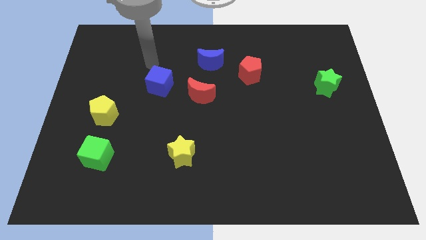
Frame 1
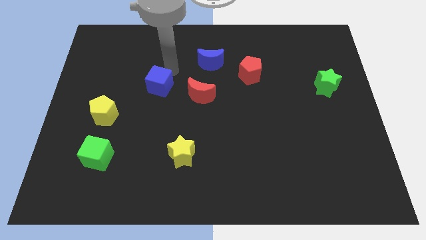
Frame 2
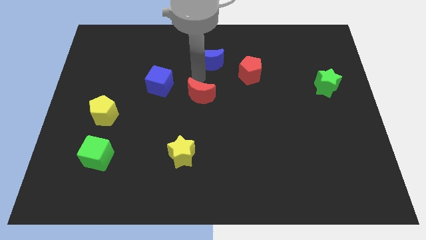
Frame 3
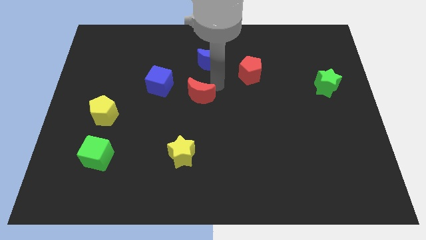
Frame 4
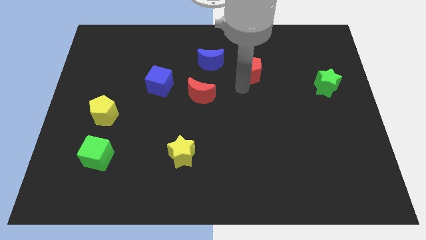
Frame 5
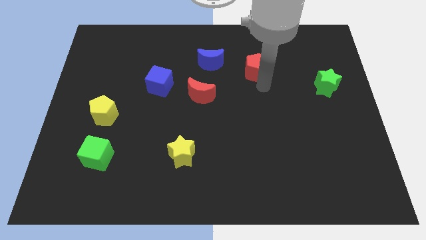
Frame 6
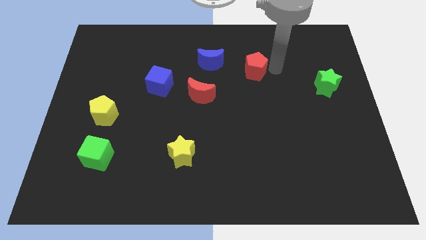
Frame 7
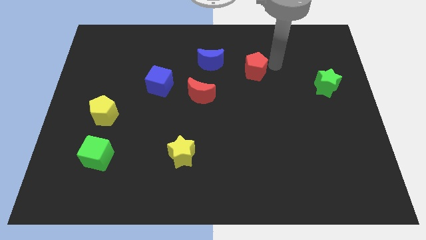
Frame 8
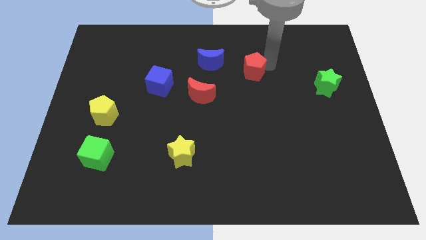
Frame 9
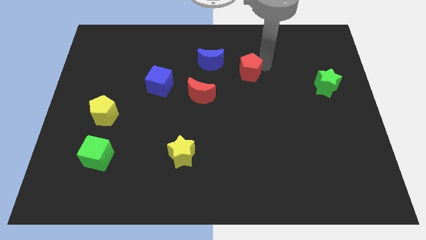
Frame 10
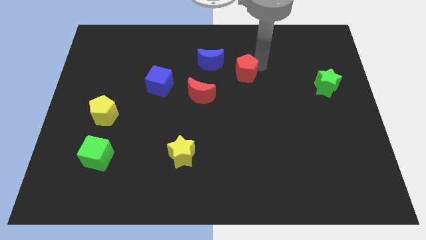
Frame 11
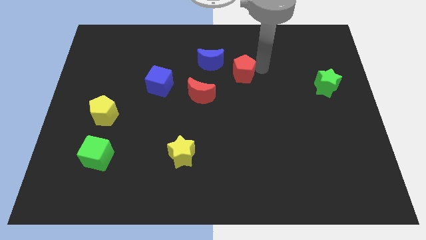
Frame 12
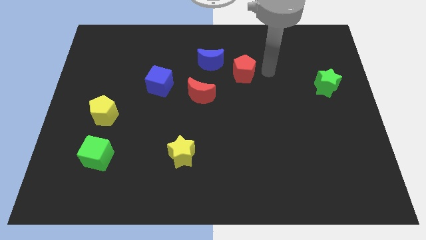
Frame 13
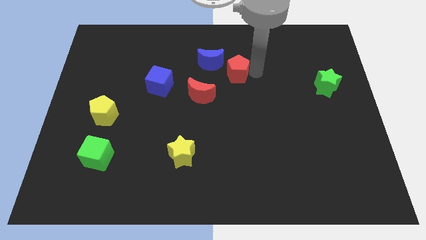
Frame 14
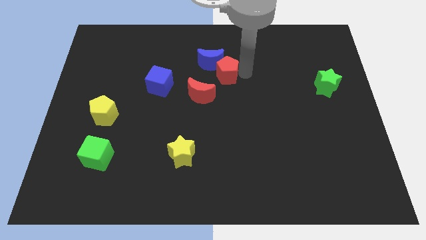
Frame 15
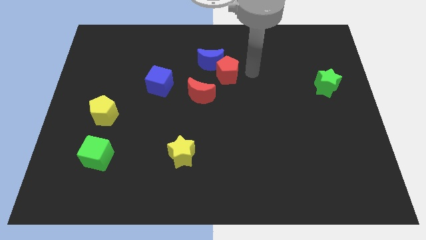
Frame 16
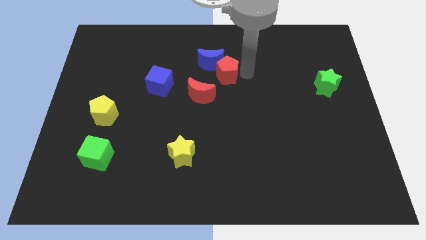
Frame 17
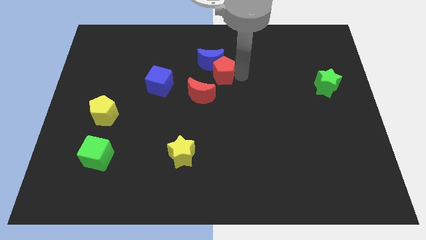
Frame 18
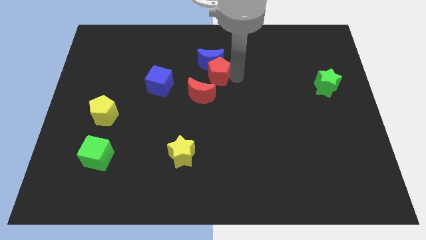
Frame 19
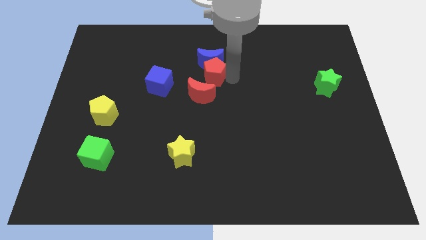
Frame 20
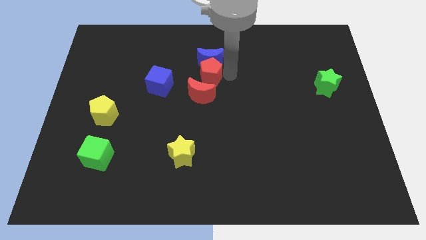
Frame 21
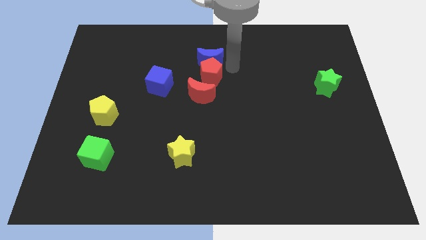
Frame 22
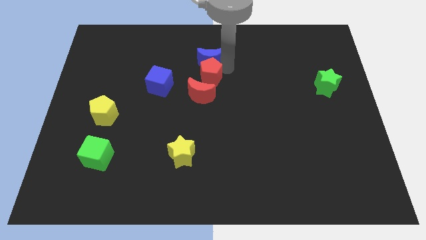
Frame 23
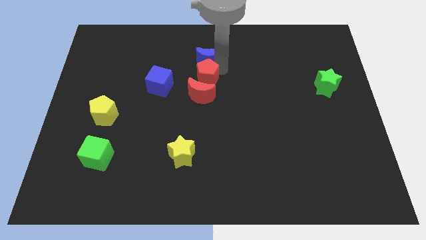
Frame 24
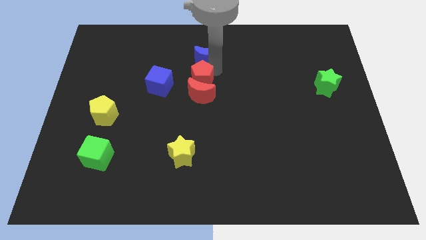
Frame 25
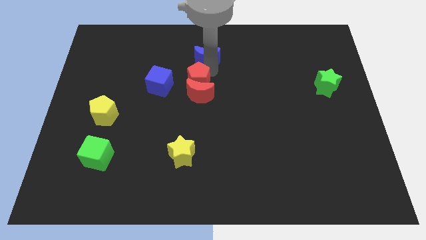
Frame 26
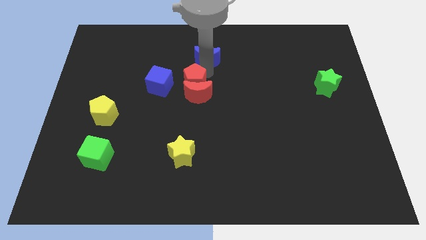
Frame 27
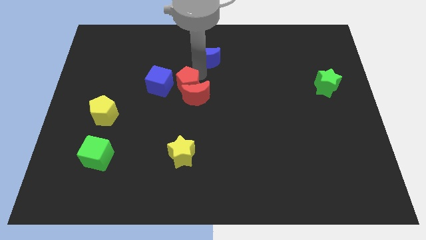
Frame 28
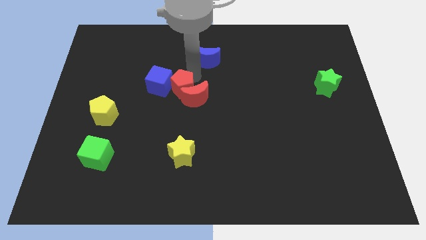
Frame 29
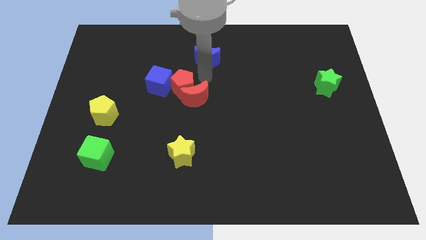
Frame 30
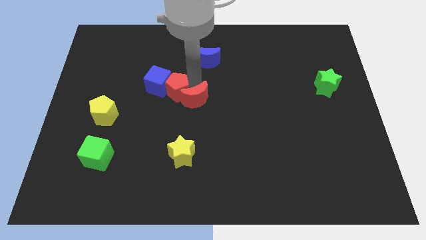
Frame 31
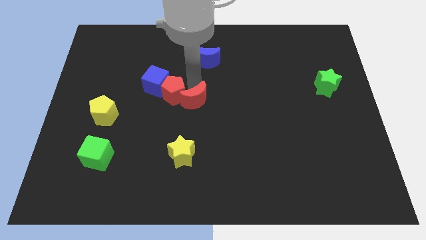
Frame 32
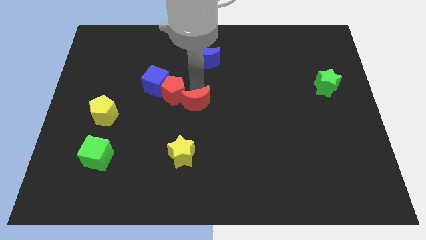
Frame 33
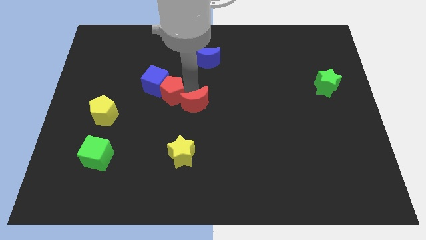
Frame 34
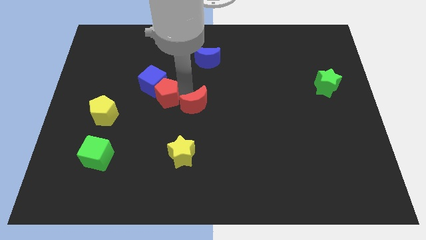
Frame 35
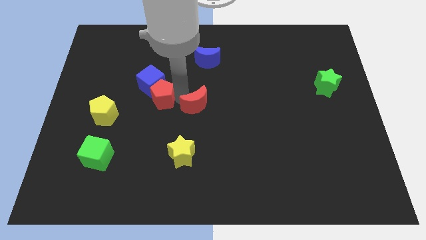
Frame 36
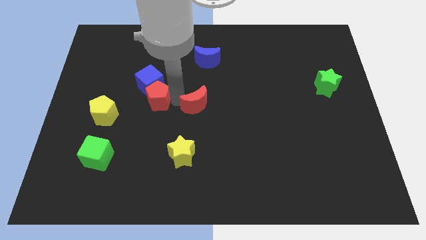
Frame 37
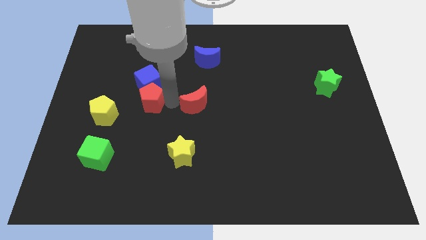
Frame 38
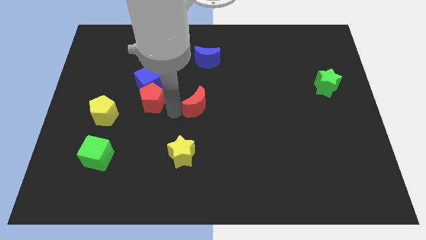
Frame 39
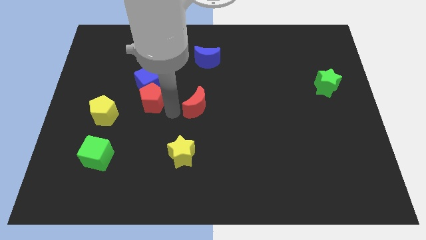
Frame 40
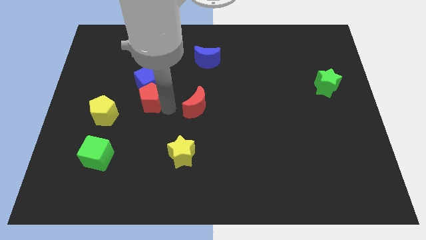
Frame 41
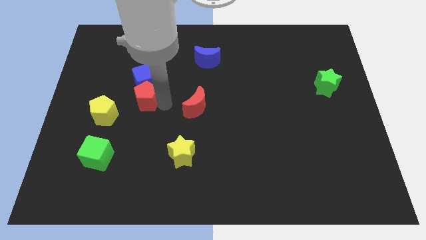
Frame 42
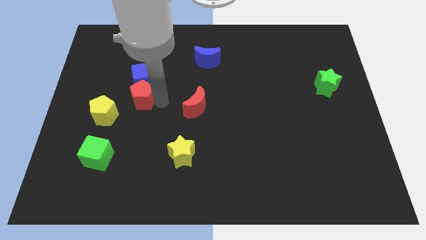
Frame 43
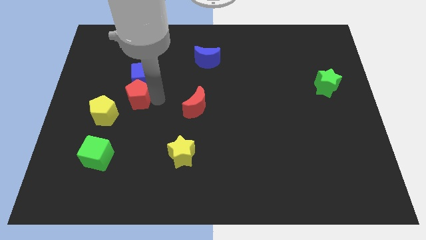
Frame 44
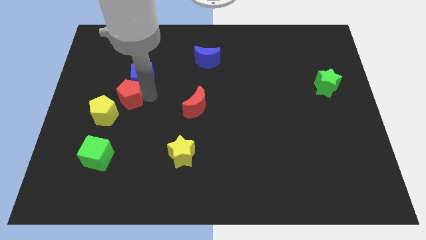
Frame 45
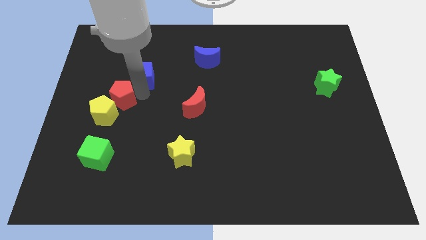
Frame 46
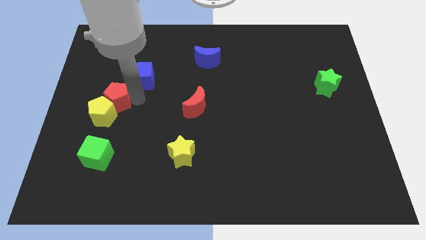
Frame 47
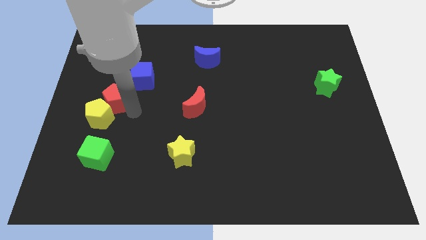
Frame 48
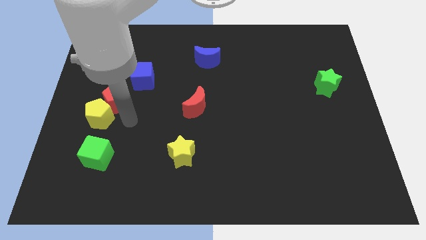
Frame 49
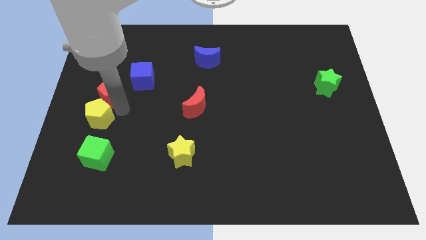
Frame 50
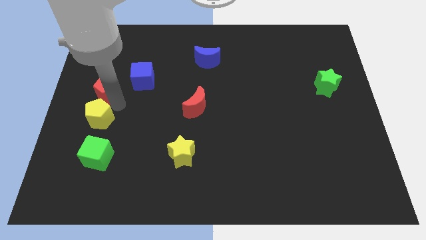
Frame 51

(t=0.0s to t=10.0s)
slide the red pentagon left of the blue cube

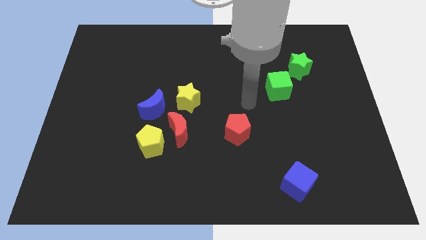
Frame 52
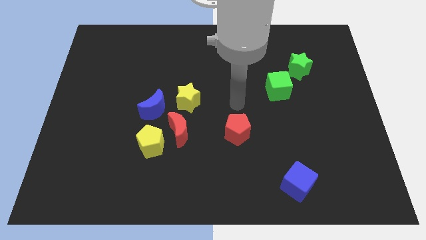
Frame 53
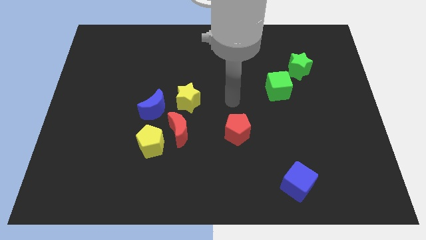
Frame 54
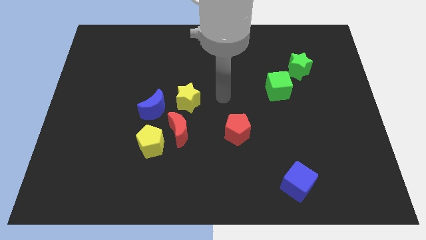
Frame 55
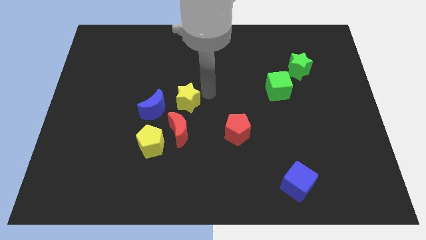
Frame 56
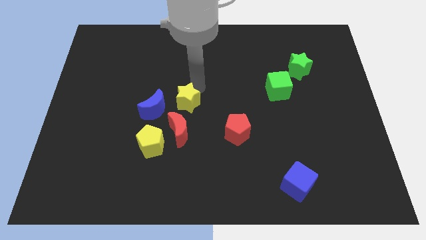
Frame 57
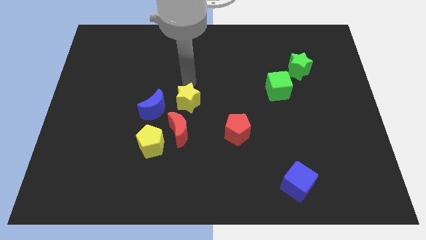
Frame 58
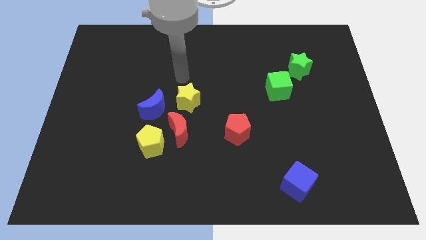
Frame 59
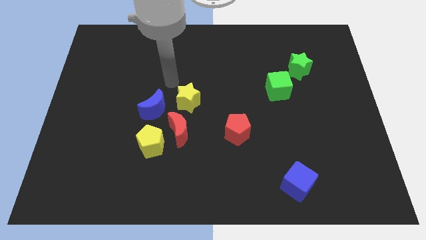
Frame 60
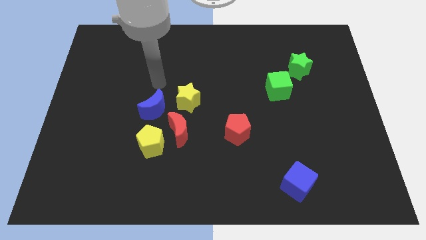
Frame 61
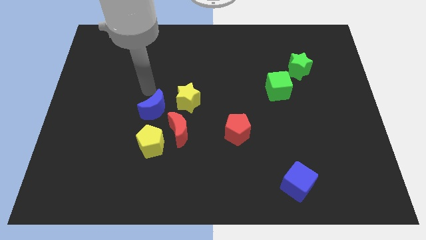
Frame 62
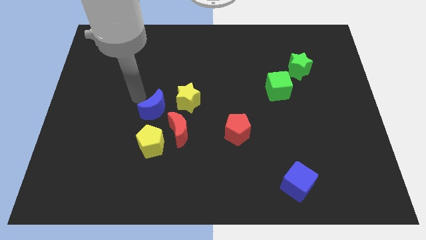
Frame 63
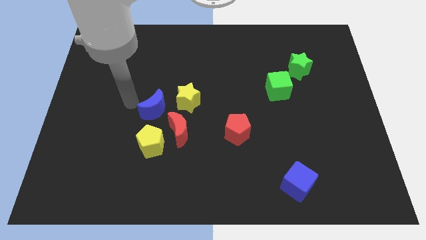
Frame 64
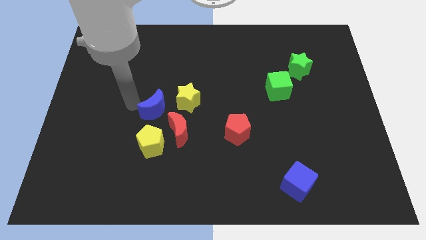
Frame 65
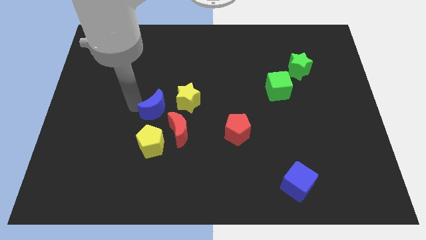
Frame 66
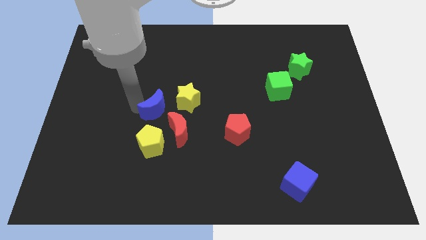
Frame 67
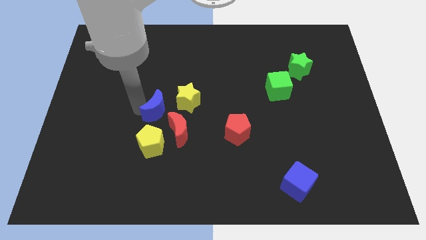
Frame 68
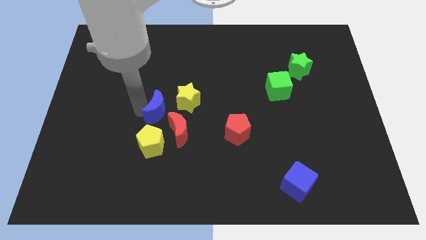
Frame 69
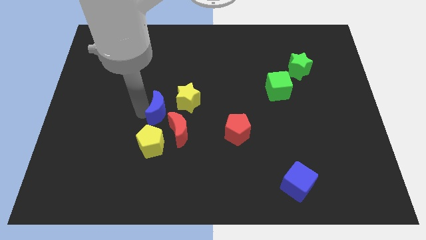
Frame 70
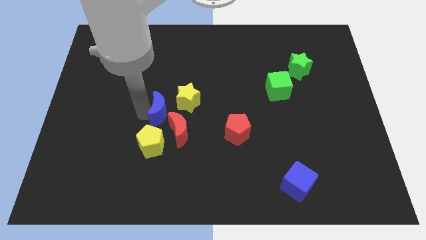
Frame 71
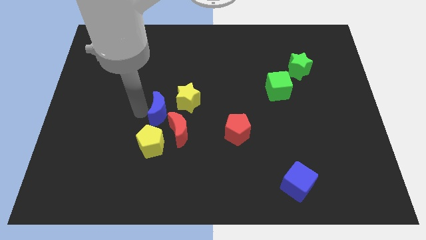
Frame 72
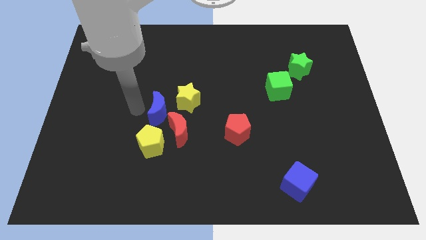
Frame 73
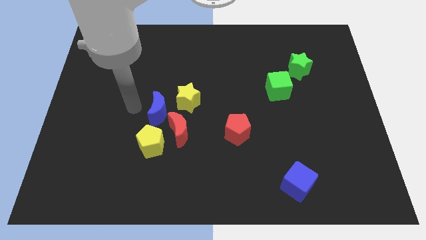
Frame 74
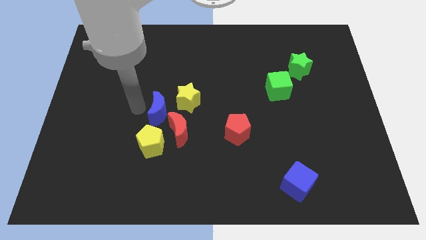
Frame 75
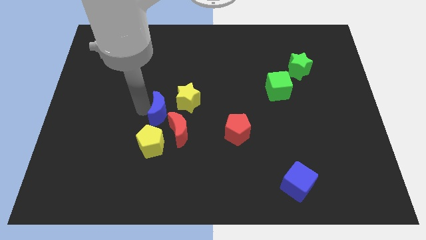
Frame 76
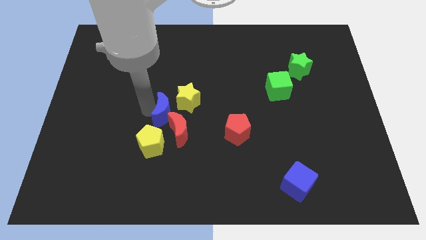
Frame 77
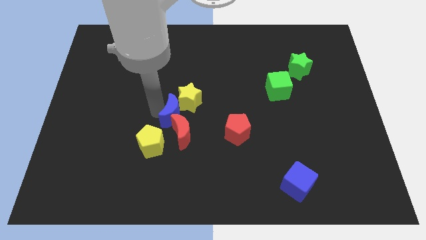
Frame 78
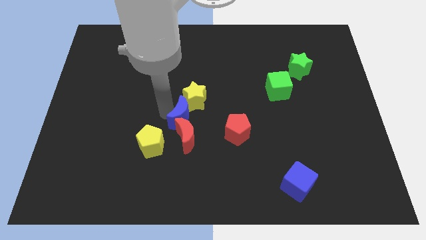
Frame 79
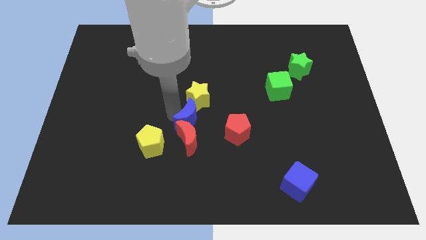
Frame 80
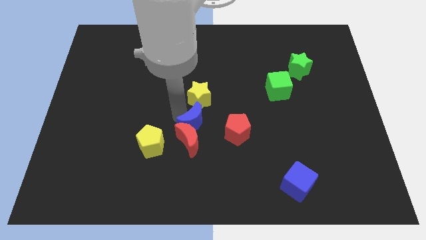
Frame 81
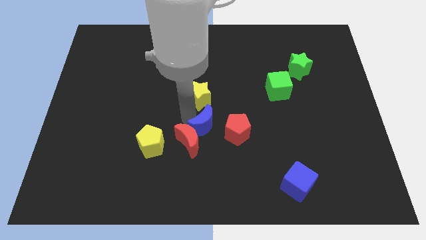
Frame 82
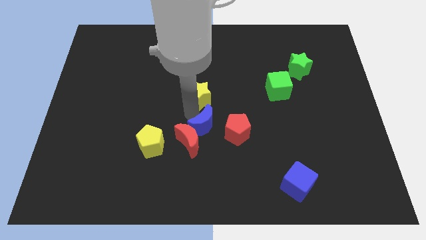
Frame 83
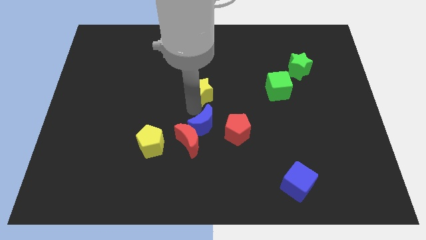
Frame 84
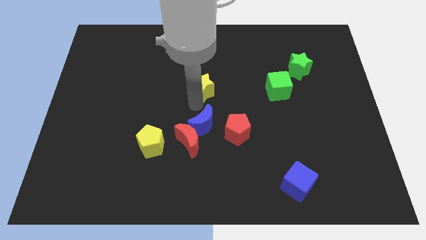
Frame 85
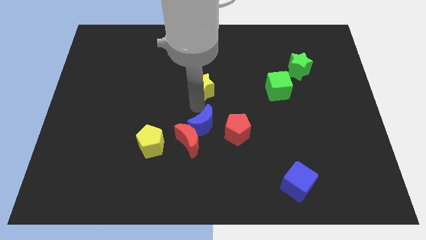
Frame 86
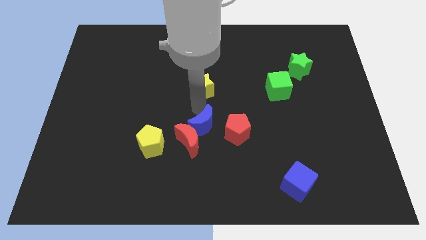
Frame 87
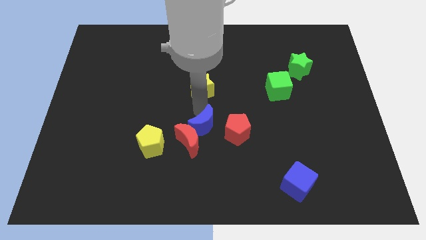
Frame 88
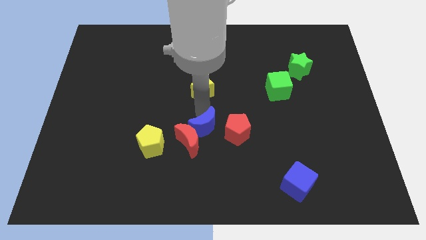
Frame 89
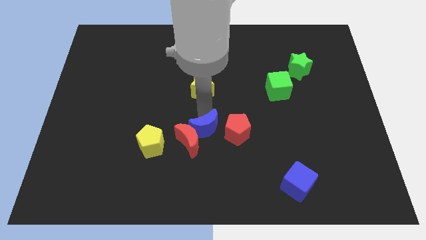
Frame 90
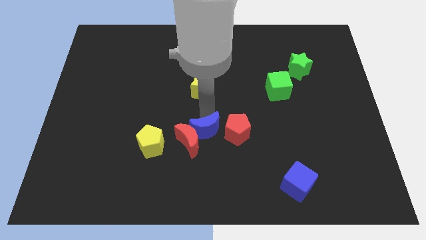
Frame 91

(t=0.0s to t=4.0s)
move the blue moon diagonally down and to the left of the red pentagon
